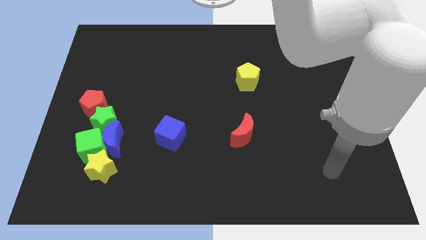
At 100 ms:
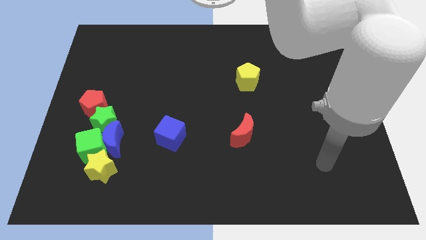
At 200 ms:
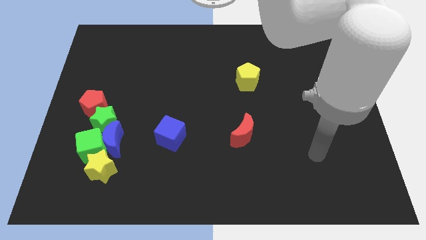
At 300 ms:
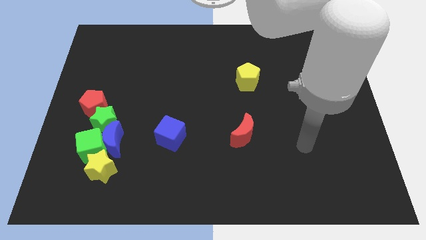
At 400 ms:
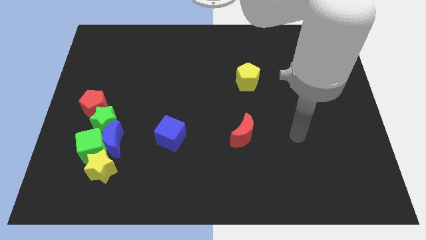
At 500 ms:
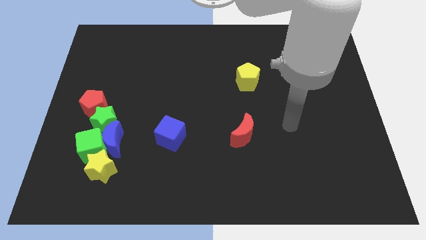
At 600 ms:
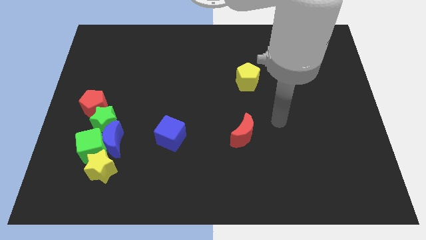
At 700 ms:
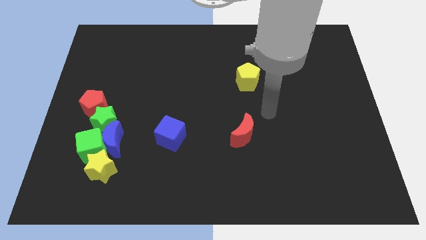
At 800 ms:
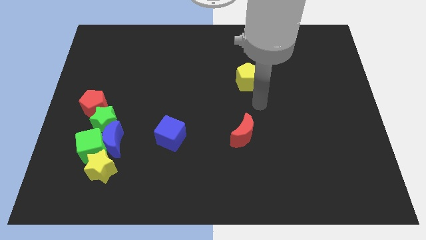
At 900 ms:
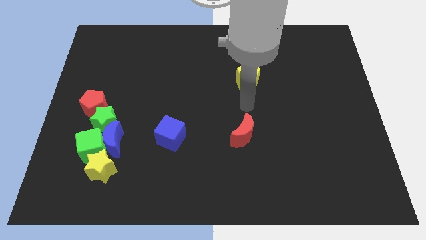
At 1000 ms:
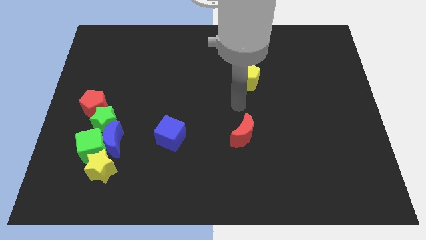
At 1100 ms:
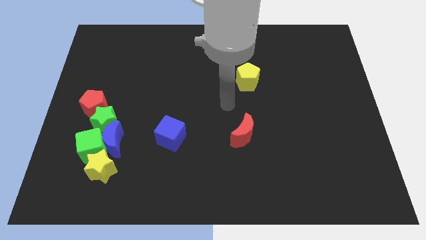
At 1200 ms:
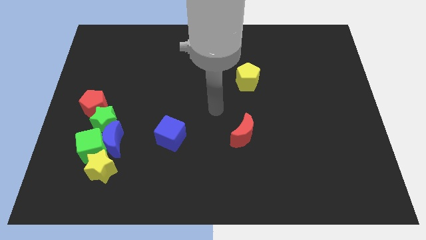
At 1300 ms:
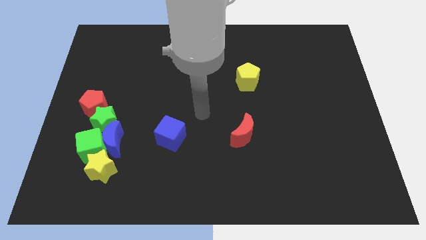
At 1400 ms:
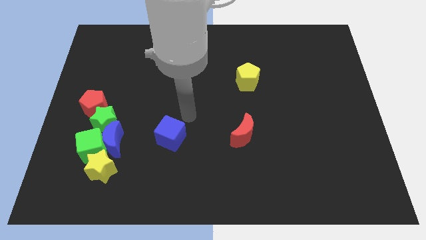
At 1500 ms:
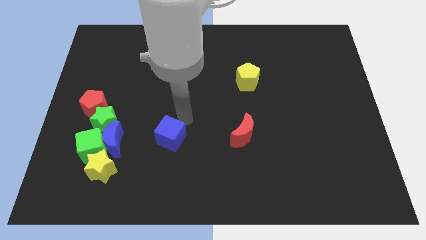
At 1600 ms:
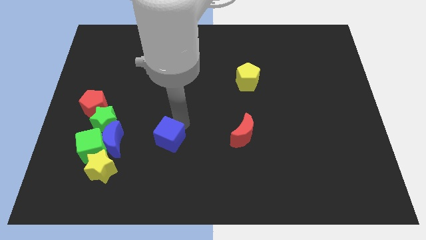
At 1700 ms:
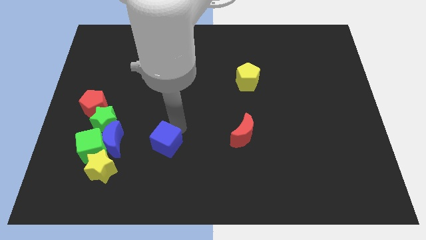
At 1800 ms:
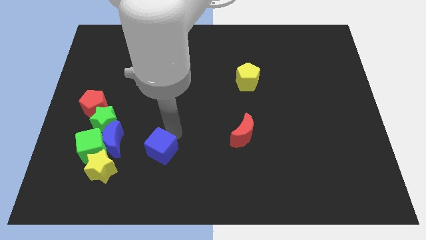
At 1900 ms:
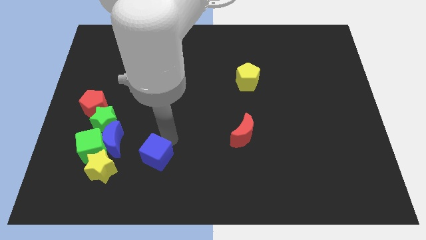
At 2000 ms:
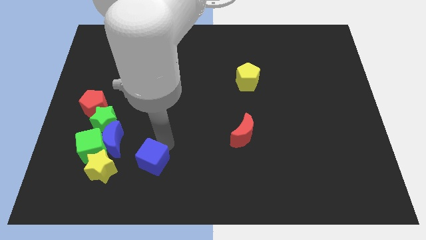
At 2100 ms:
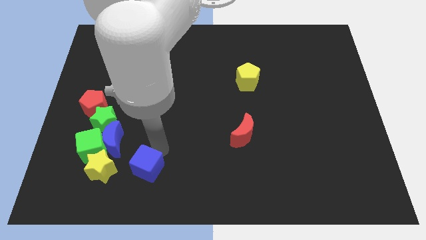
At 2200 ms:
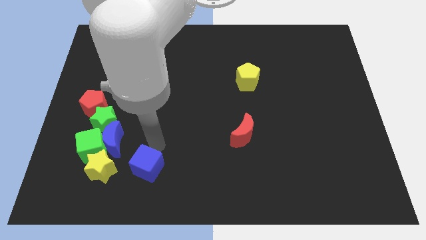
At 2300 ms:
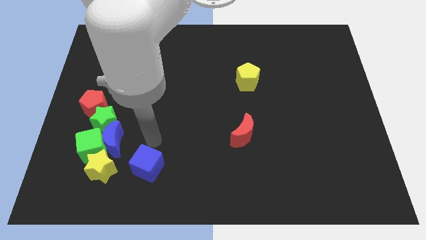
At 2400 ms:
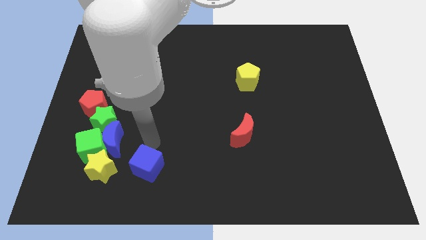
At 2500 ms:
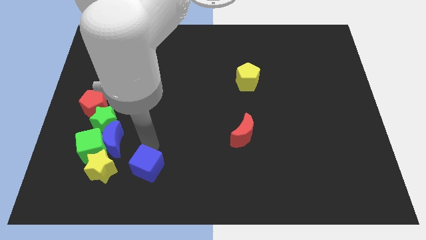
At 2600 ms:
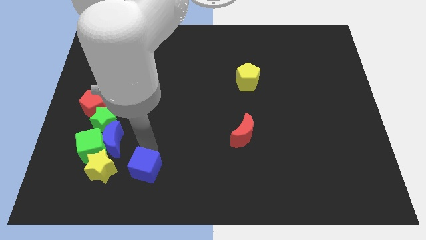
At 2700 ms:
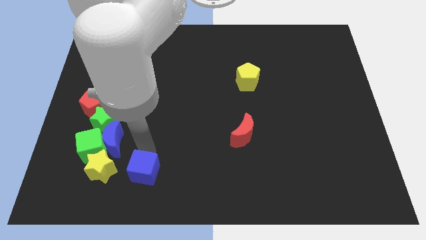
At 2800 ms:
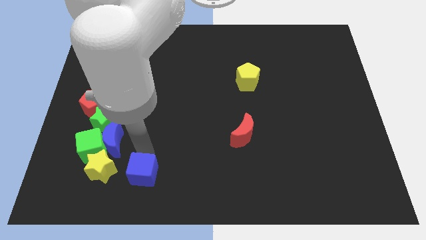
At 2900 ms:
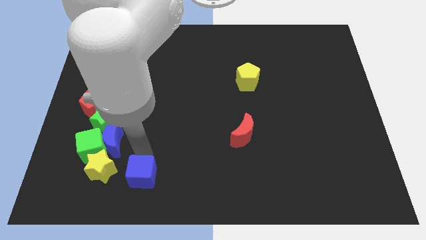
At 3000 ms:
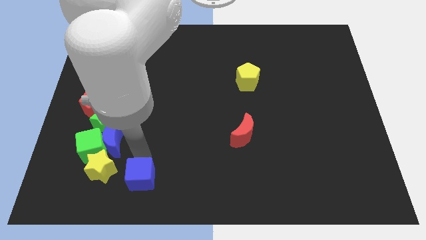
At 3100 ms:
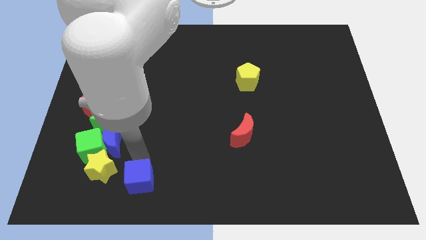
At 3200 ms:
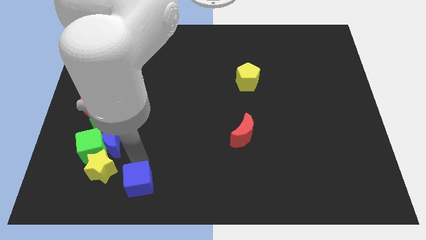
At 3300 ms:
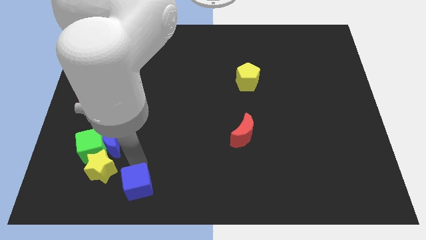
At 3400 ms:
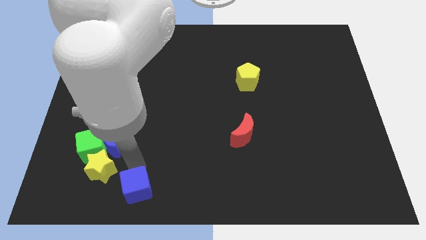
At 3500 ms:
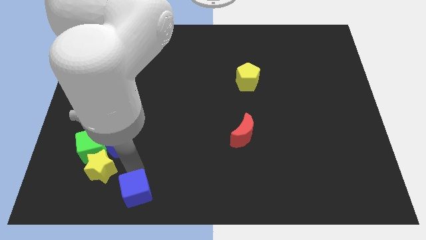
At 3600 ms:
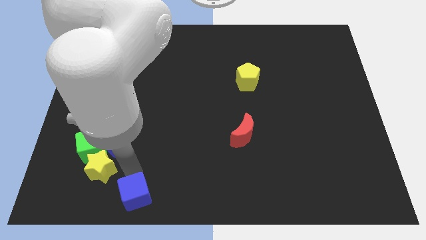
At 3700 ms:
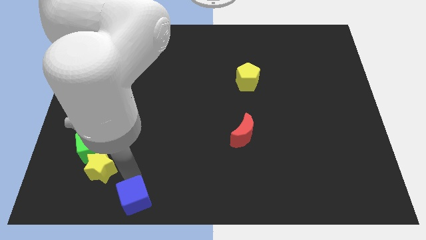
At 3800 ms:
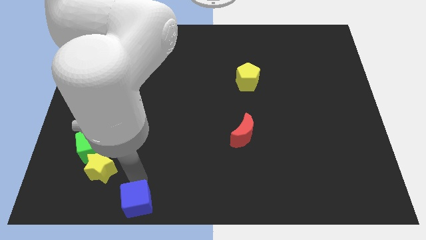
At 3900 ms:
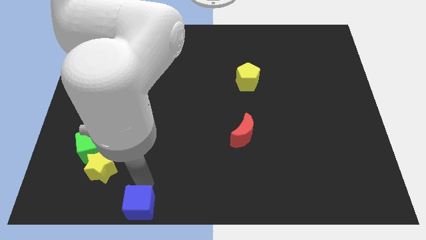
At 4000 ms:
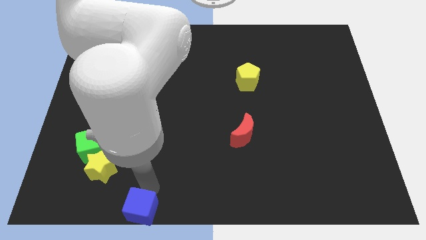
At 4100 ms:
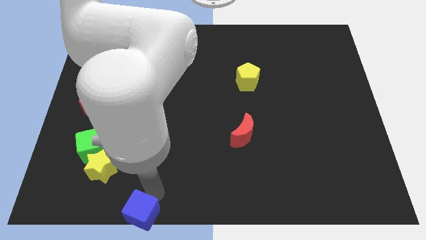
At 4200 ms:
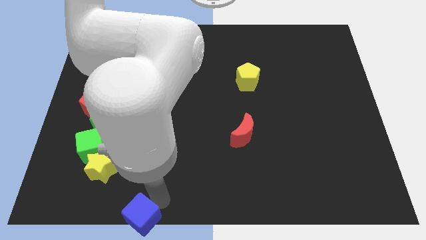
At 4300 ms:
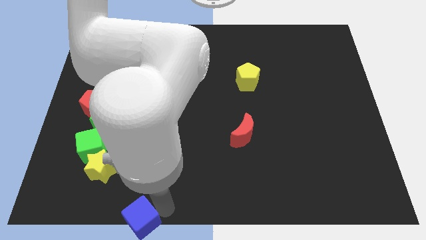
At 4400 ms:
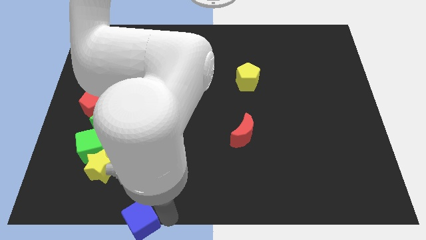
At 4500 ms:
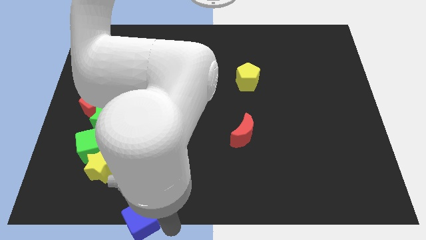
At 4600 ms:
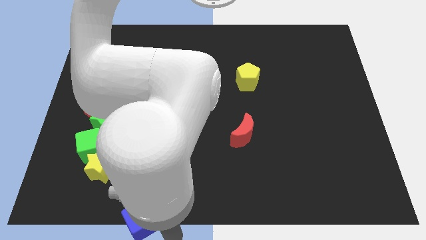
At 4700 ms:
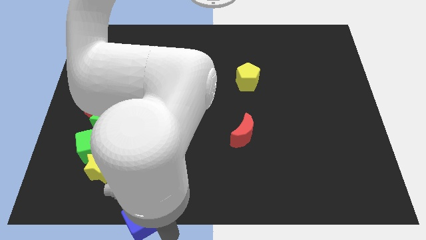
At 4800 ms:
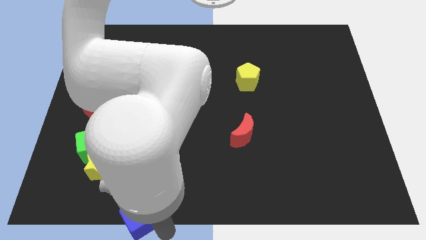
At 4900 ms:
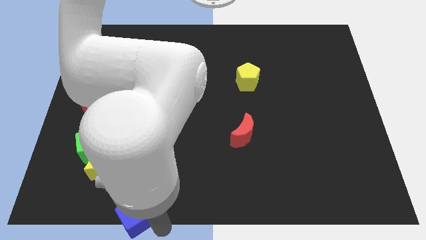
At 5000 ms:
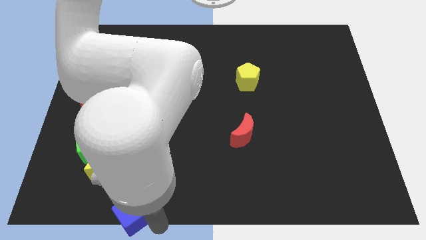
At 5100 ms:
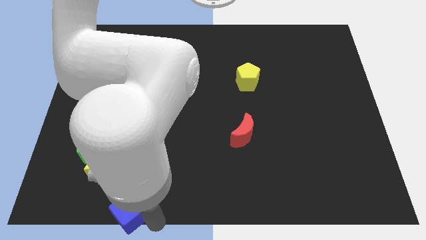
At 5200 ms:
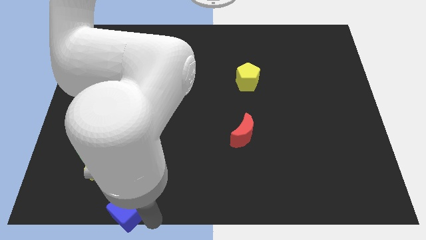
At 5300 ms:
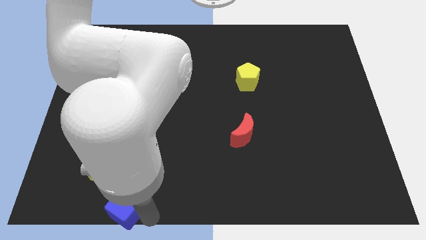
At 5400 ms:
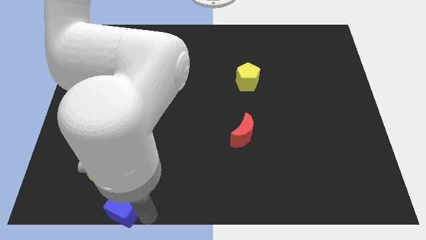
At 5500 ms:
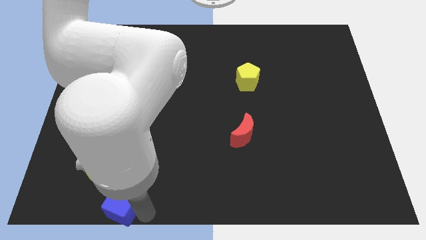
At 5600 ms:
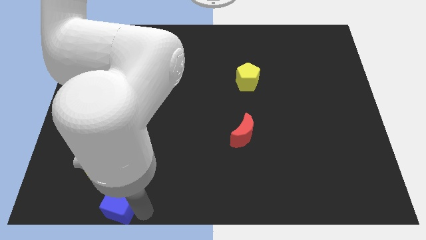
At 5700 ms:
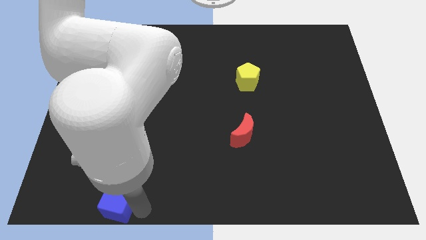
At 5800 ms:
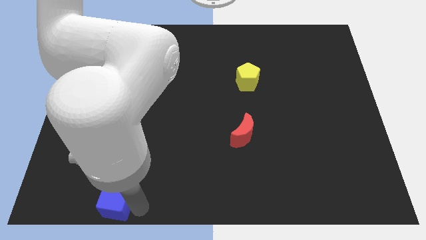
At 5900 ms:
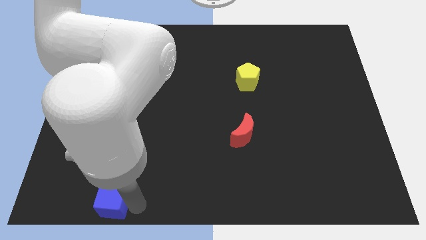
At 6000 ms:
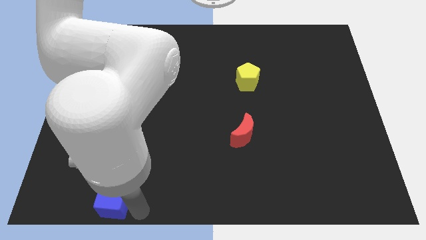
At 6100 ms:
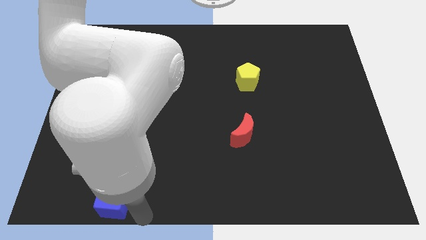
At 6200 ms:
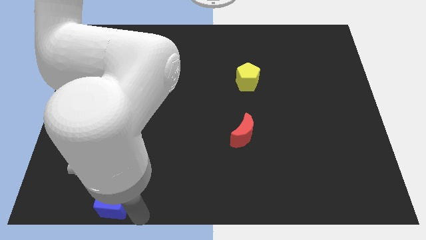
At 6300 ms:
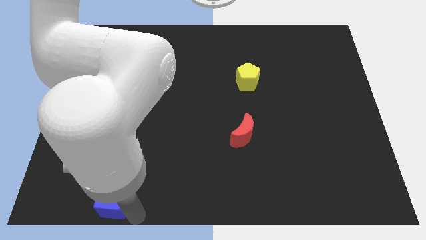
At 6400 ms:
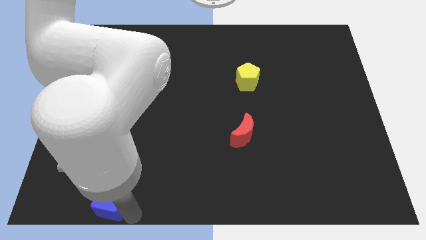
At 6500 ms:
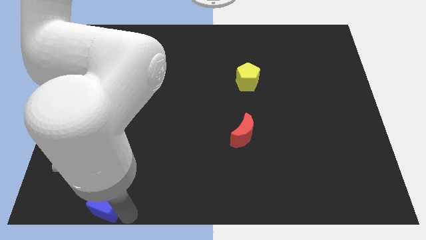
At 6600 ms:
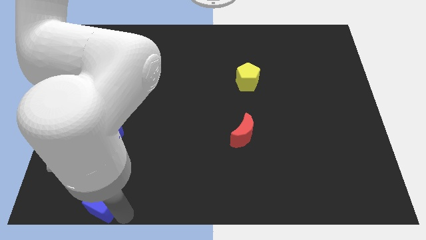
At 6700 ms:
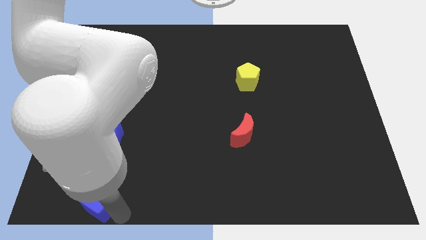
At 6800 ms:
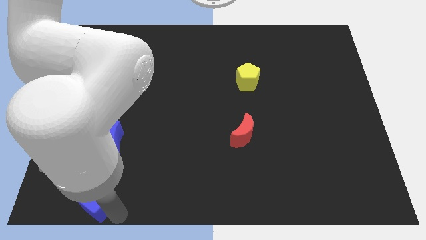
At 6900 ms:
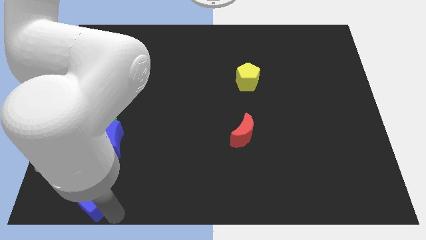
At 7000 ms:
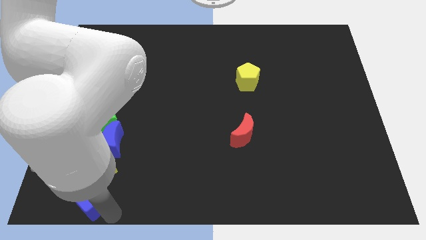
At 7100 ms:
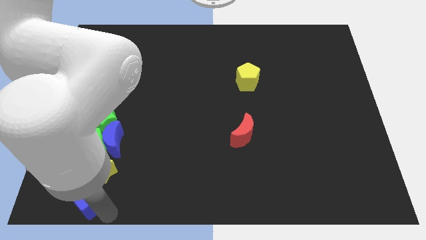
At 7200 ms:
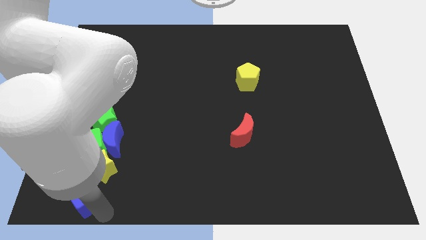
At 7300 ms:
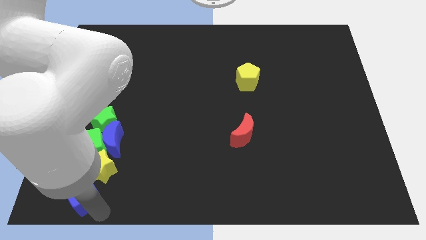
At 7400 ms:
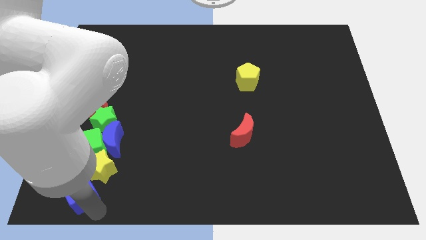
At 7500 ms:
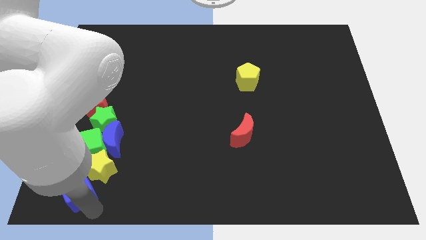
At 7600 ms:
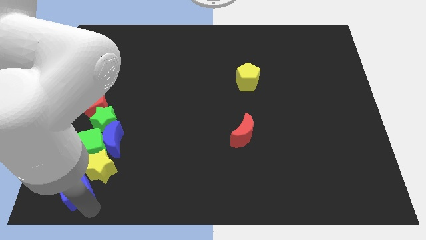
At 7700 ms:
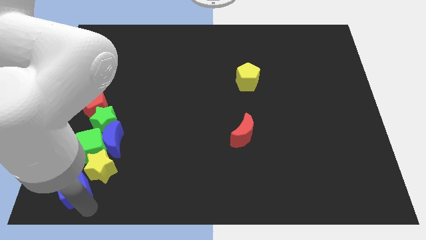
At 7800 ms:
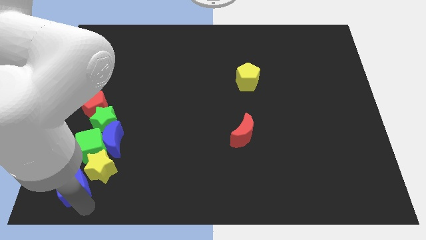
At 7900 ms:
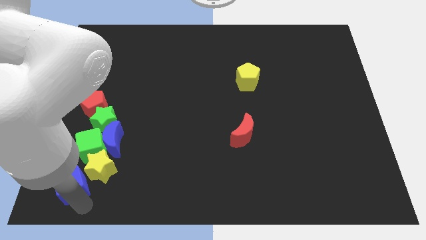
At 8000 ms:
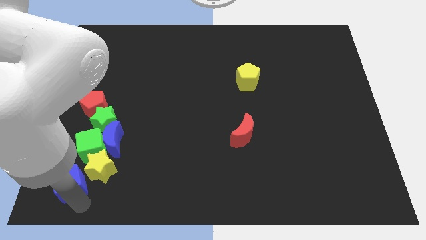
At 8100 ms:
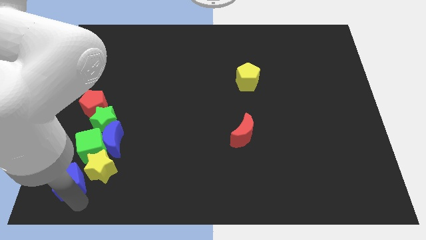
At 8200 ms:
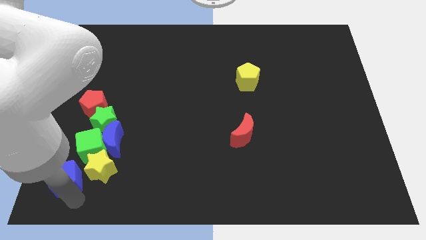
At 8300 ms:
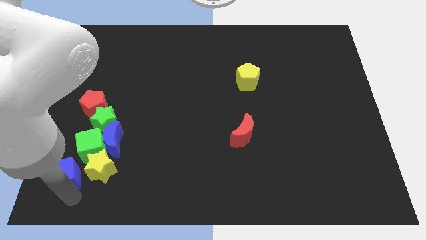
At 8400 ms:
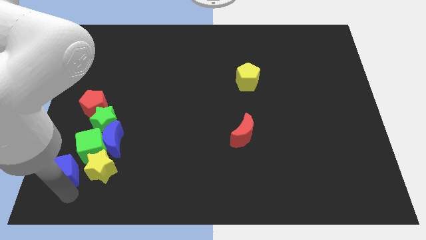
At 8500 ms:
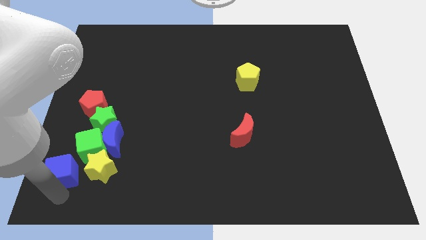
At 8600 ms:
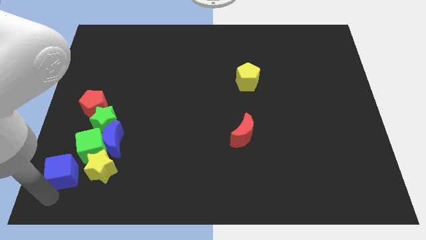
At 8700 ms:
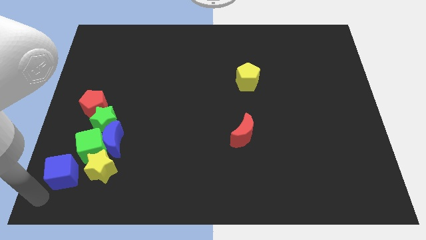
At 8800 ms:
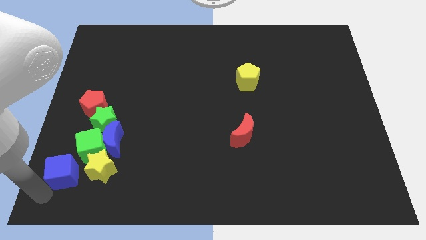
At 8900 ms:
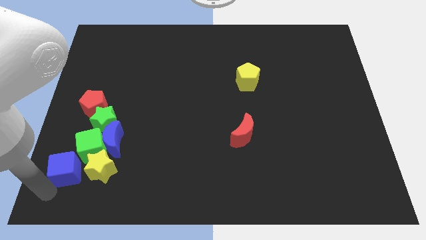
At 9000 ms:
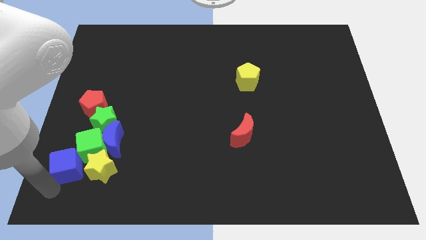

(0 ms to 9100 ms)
move the blue cube next to the green cube
